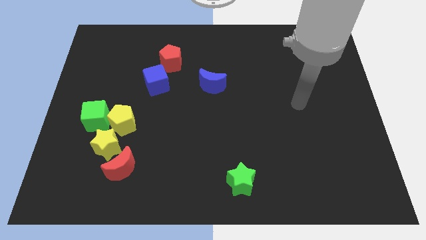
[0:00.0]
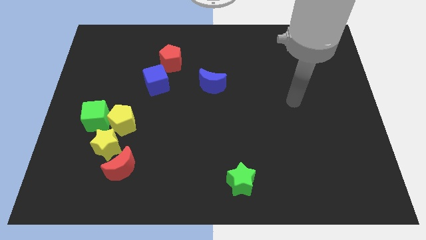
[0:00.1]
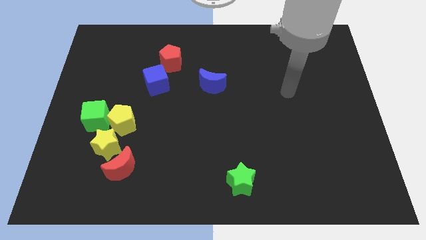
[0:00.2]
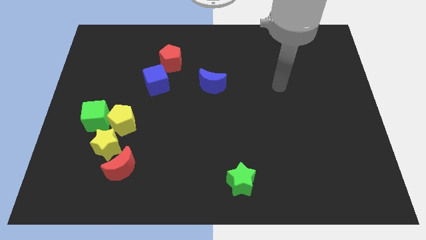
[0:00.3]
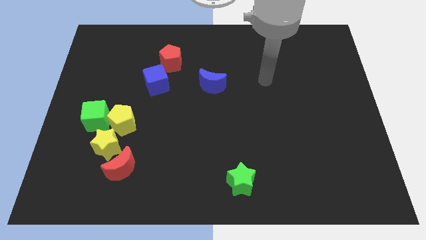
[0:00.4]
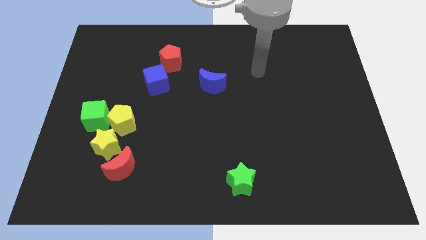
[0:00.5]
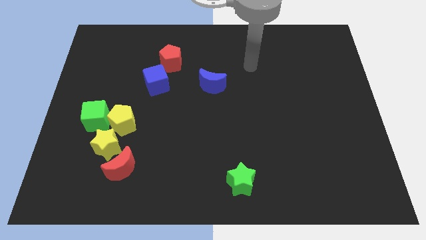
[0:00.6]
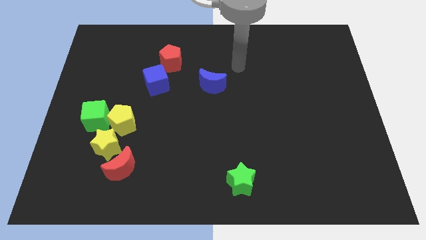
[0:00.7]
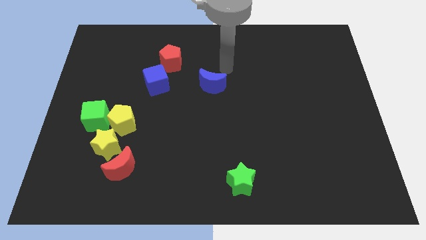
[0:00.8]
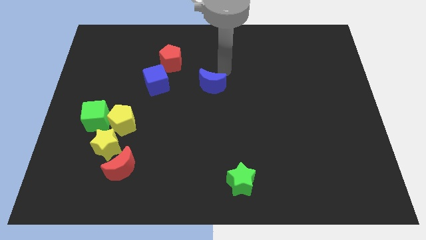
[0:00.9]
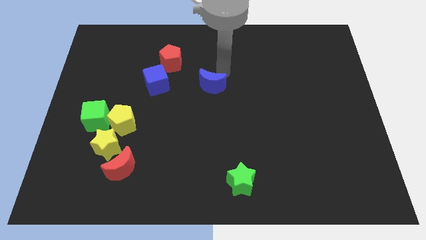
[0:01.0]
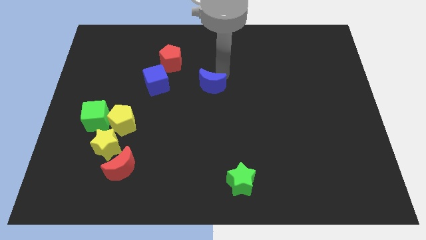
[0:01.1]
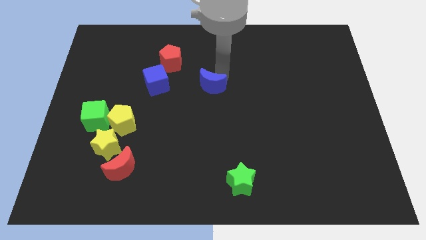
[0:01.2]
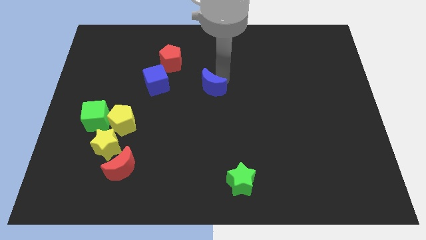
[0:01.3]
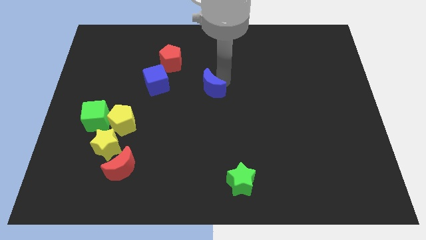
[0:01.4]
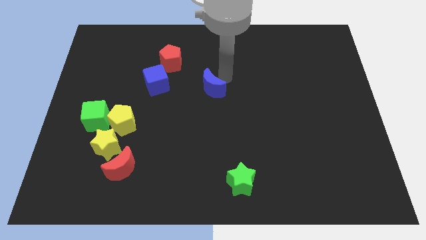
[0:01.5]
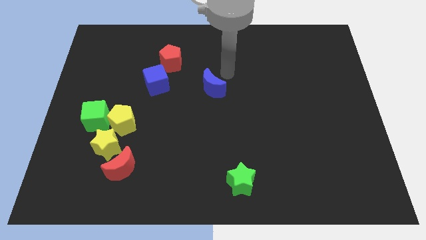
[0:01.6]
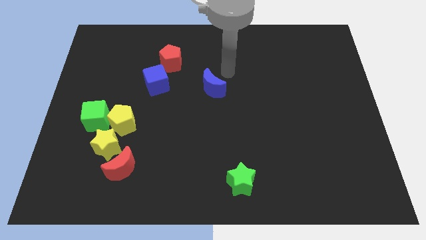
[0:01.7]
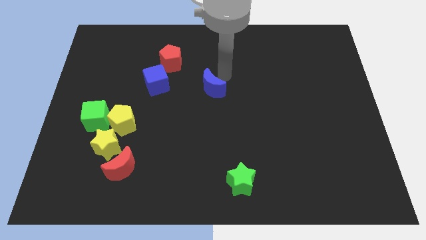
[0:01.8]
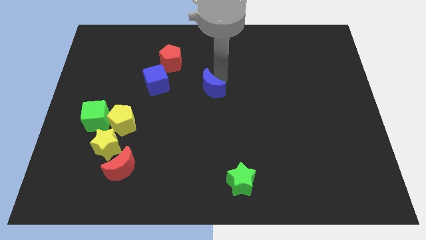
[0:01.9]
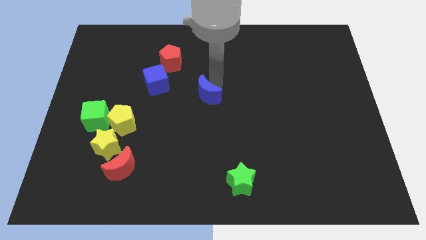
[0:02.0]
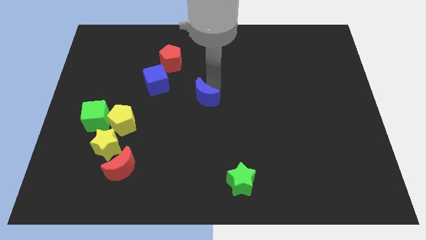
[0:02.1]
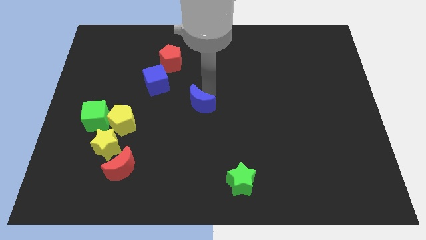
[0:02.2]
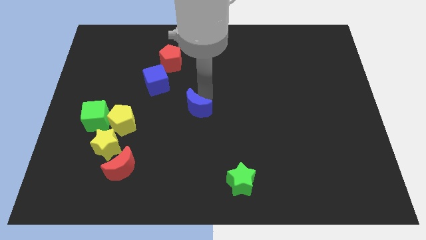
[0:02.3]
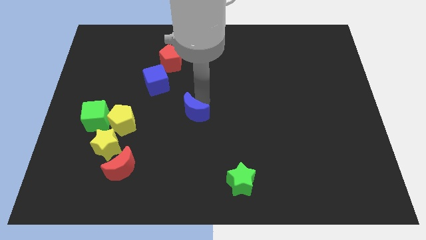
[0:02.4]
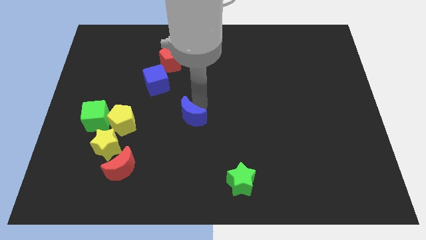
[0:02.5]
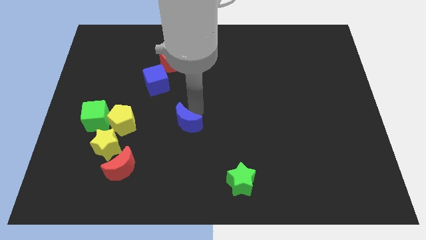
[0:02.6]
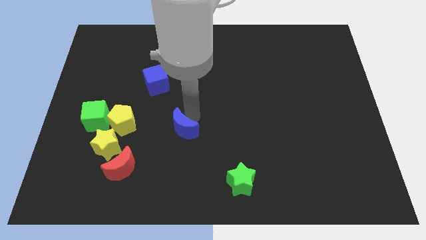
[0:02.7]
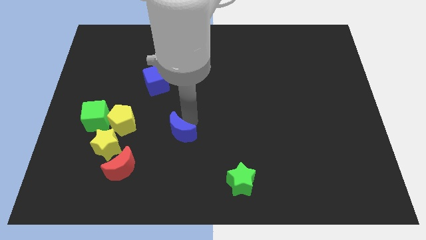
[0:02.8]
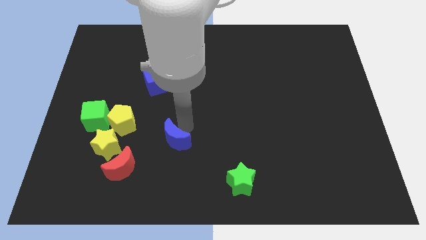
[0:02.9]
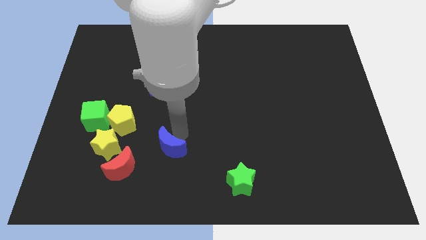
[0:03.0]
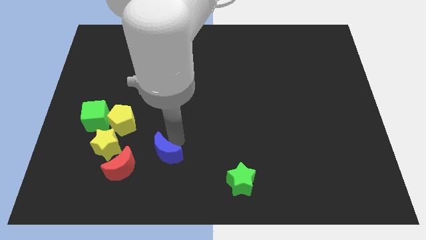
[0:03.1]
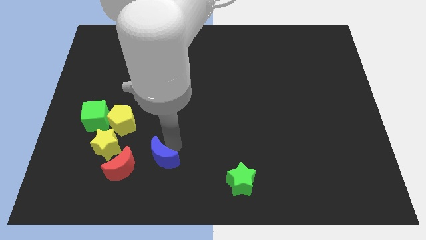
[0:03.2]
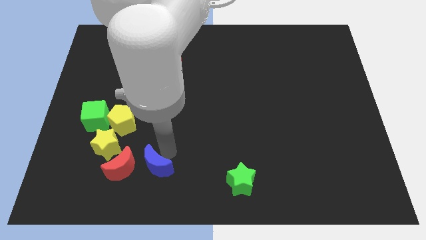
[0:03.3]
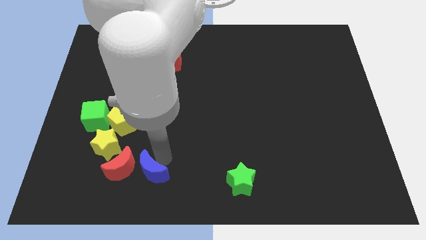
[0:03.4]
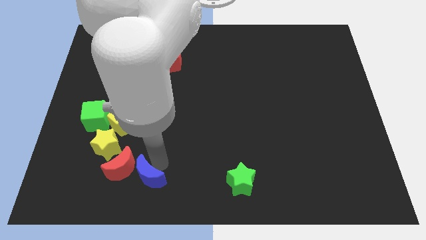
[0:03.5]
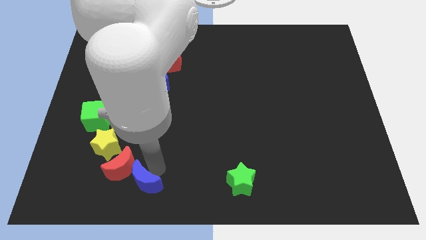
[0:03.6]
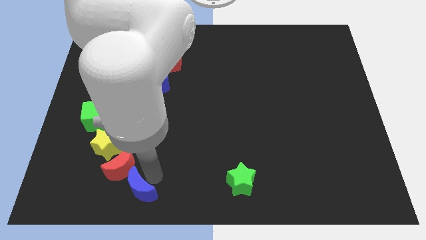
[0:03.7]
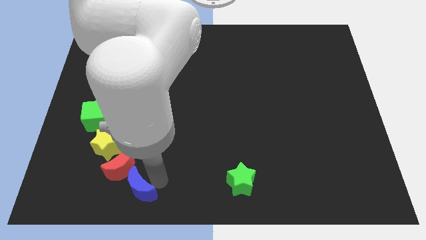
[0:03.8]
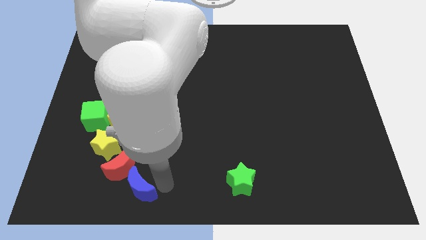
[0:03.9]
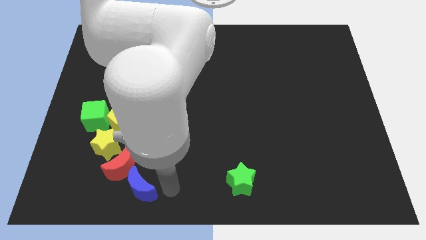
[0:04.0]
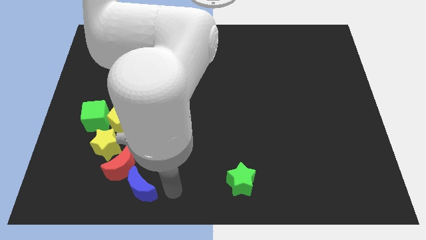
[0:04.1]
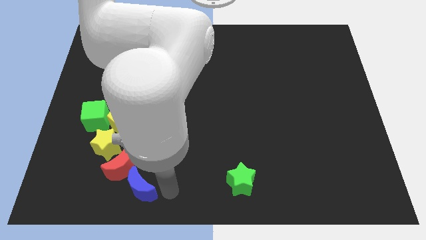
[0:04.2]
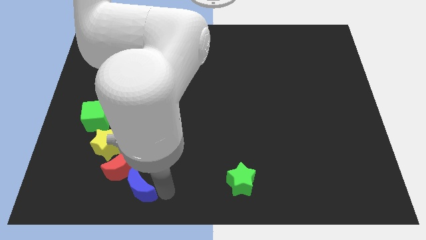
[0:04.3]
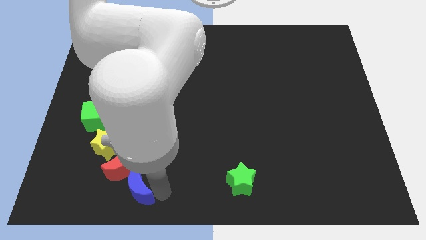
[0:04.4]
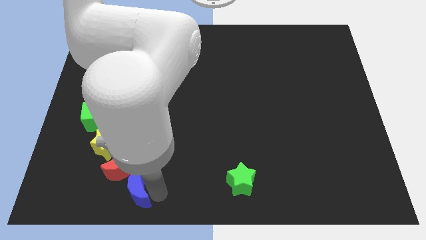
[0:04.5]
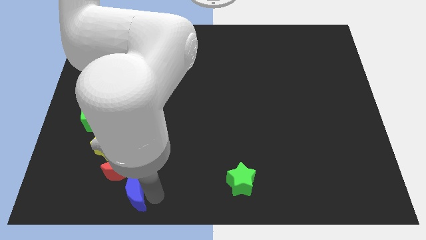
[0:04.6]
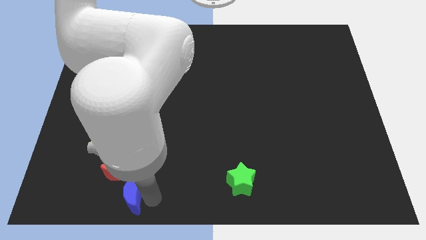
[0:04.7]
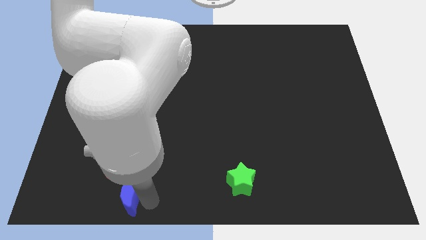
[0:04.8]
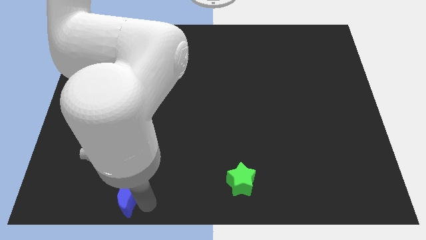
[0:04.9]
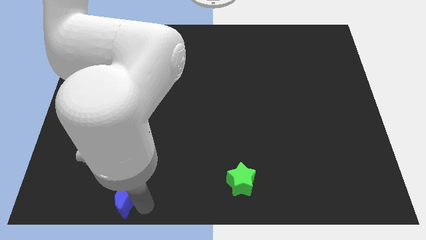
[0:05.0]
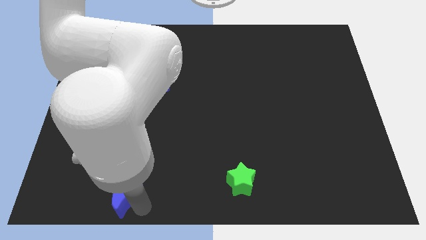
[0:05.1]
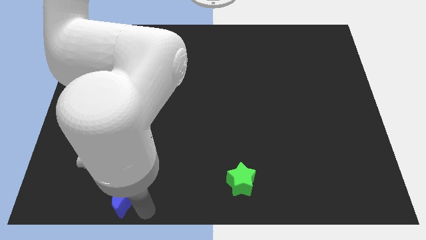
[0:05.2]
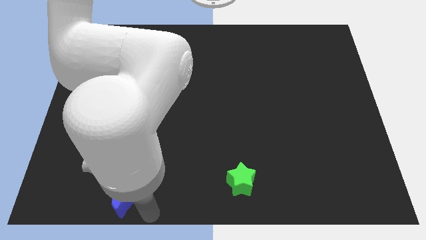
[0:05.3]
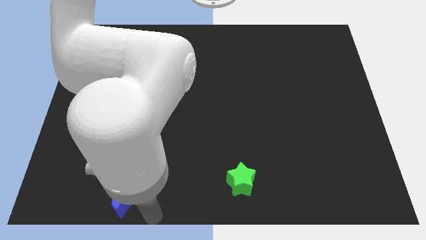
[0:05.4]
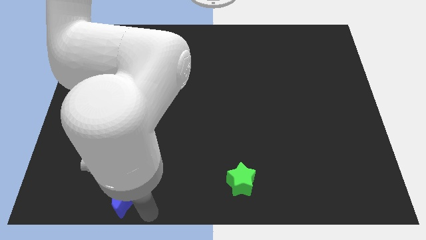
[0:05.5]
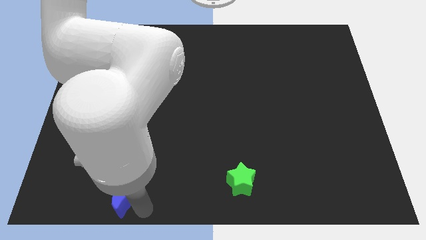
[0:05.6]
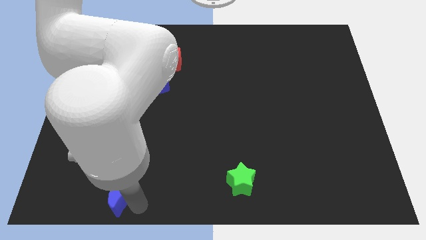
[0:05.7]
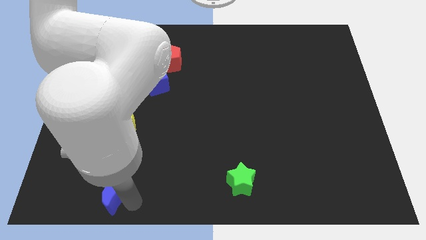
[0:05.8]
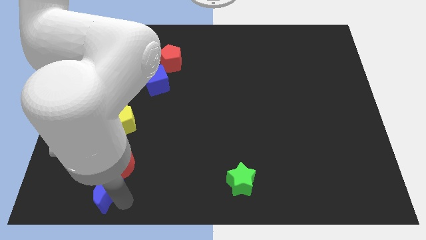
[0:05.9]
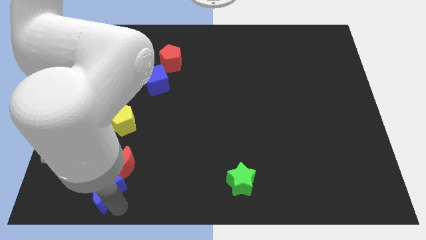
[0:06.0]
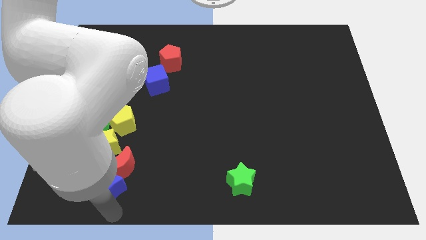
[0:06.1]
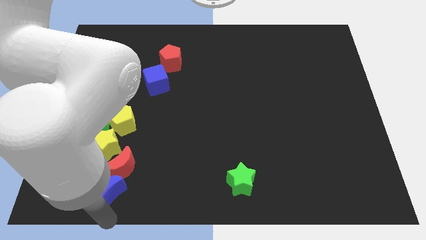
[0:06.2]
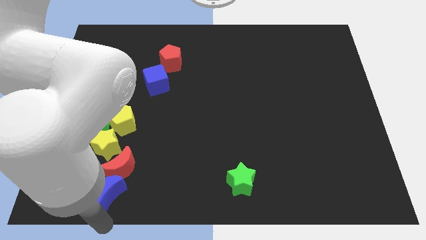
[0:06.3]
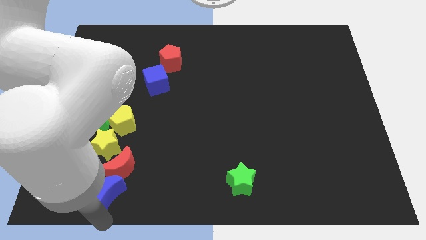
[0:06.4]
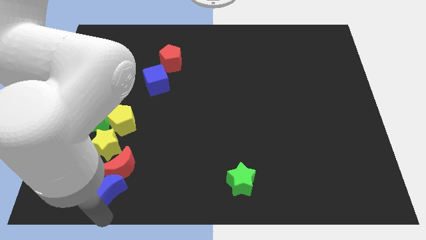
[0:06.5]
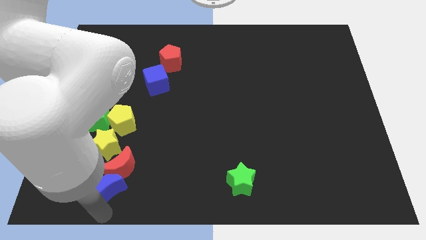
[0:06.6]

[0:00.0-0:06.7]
move the blue moon below the yellow pentagon

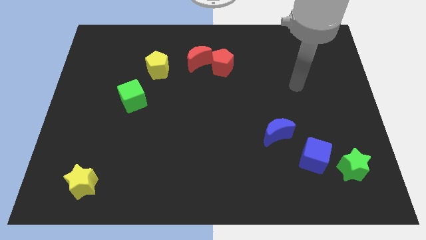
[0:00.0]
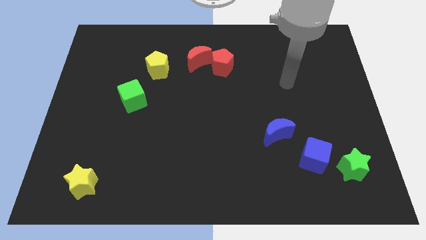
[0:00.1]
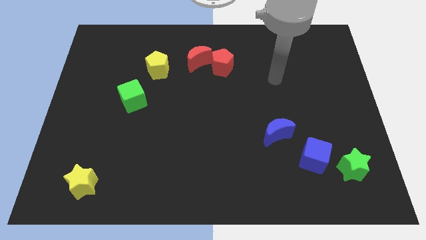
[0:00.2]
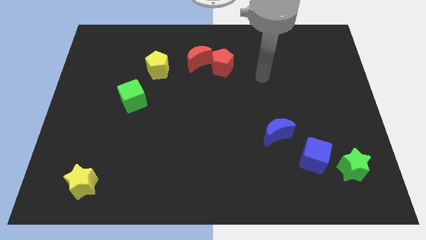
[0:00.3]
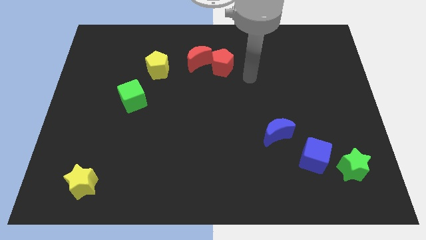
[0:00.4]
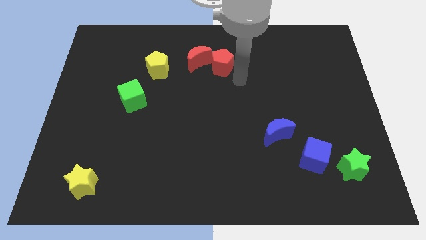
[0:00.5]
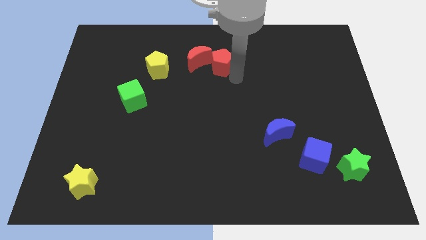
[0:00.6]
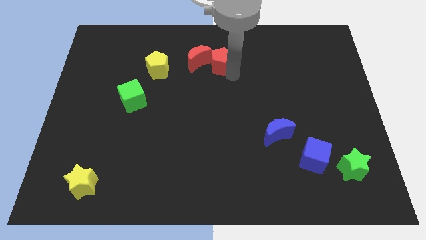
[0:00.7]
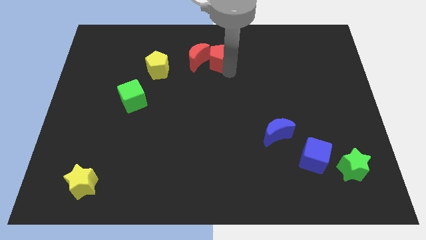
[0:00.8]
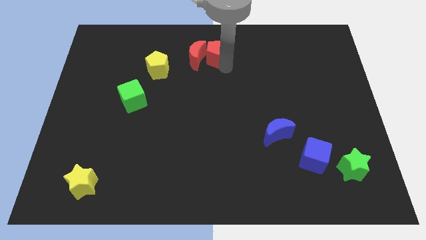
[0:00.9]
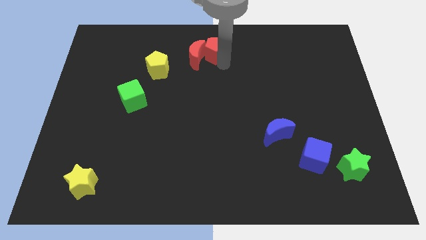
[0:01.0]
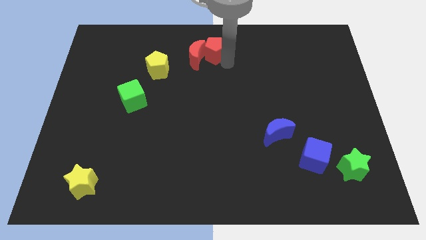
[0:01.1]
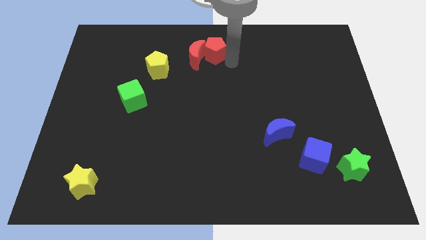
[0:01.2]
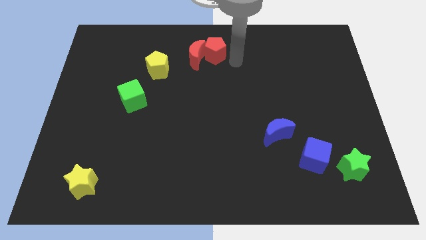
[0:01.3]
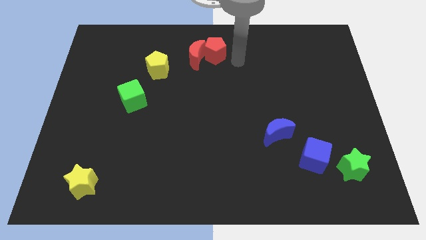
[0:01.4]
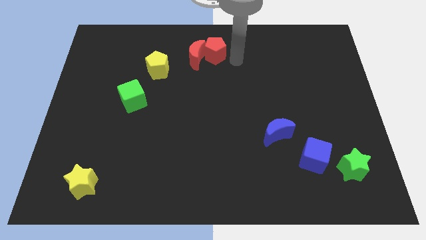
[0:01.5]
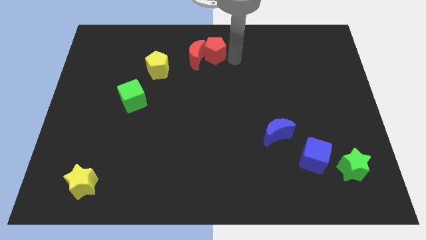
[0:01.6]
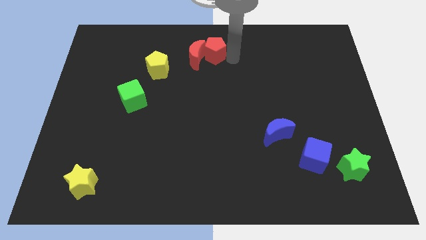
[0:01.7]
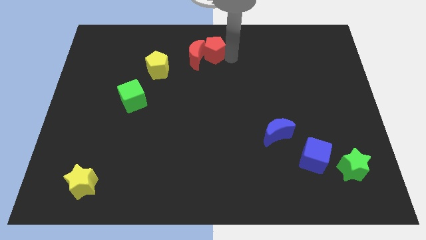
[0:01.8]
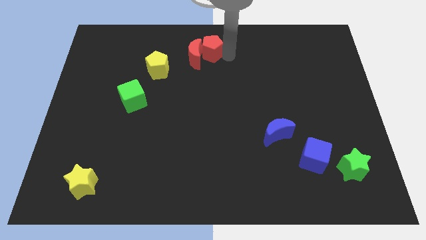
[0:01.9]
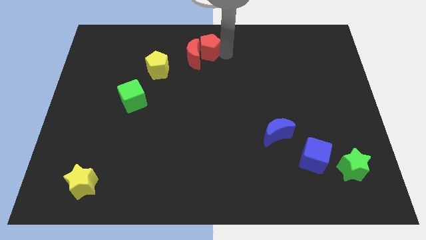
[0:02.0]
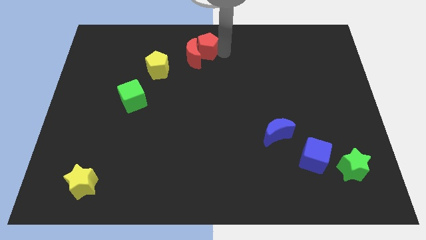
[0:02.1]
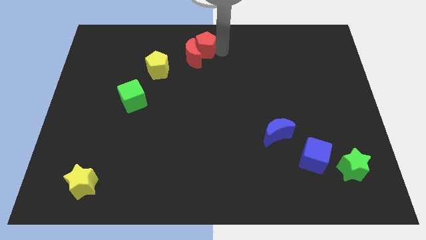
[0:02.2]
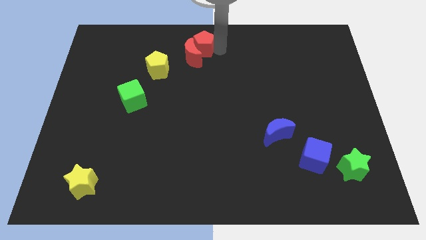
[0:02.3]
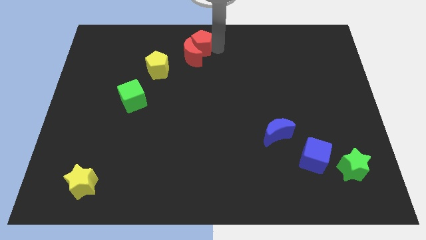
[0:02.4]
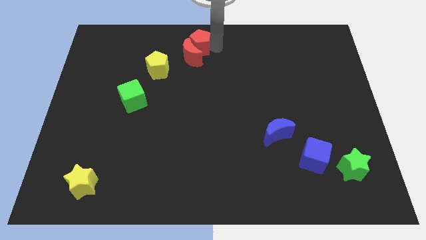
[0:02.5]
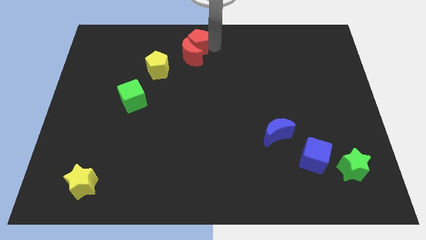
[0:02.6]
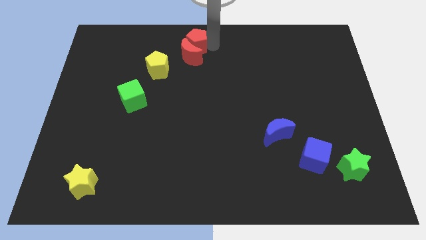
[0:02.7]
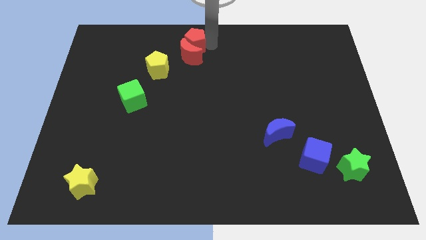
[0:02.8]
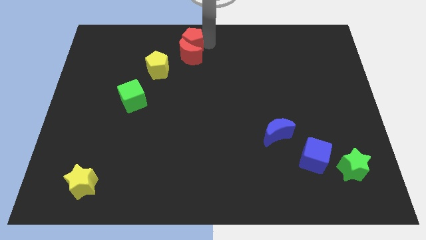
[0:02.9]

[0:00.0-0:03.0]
slide the red pentagon diagonally up and to the right of the yellow pentagon
